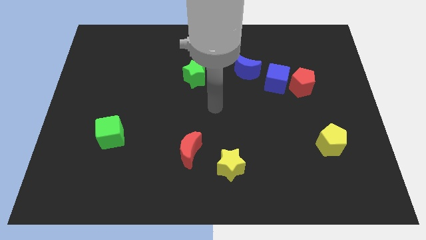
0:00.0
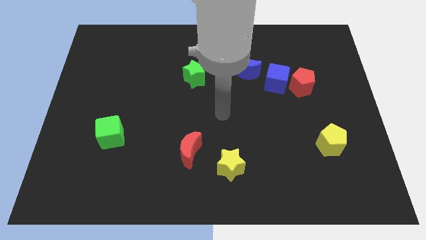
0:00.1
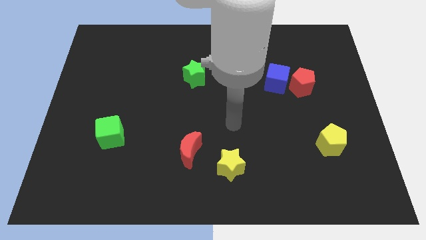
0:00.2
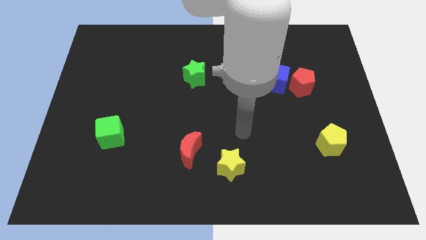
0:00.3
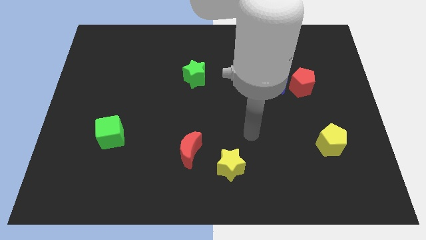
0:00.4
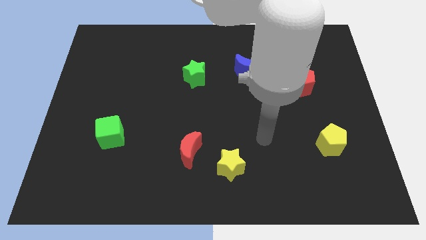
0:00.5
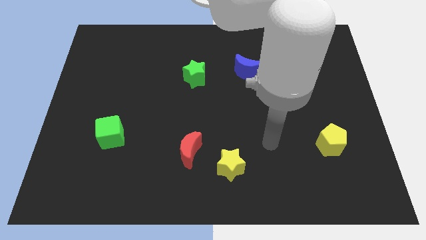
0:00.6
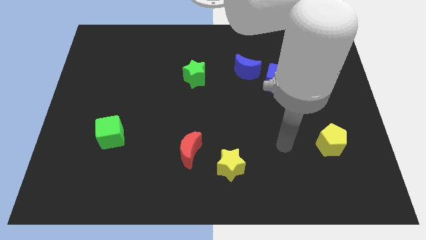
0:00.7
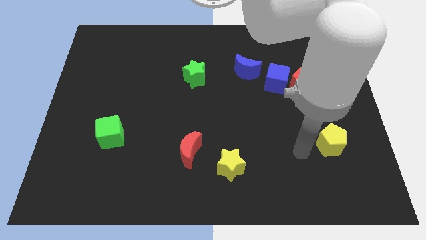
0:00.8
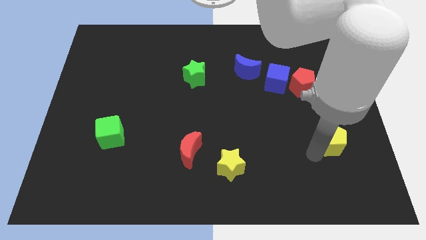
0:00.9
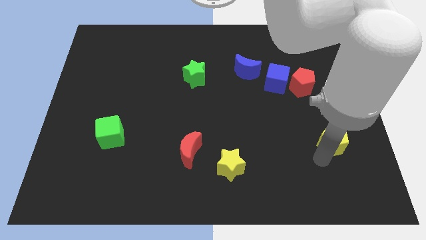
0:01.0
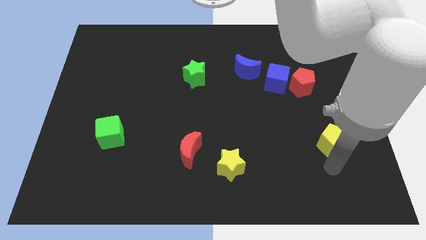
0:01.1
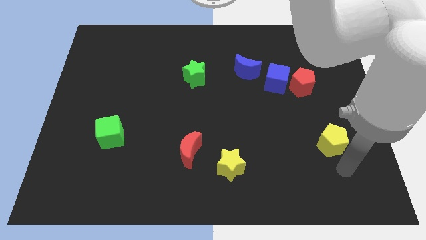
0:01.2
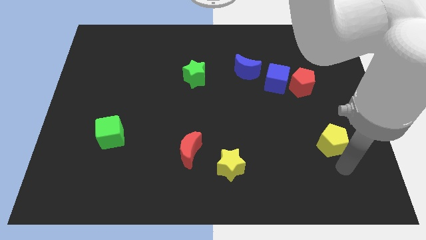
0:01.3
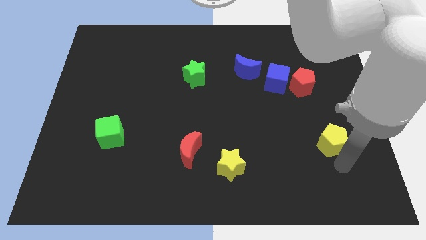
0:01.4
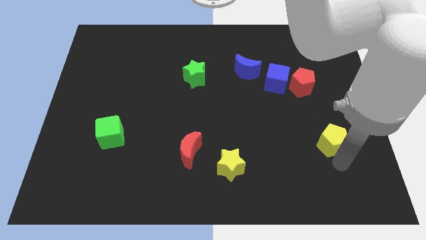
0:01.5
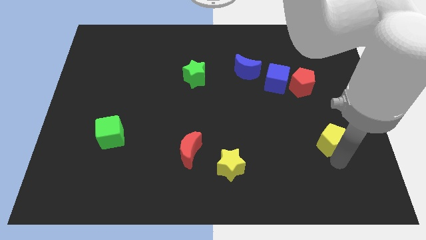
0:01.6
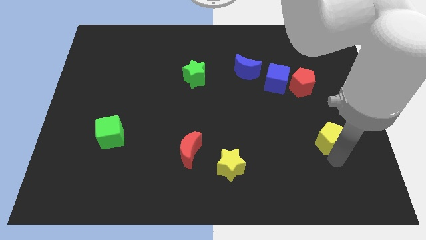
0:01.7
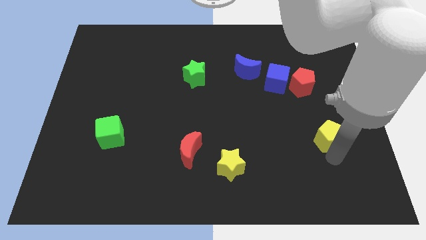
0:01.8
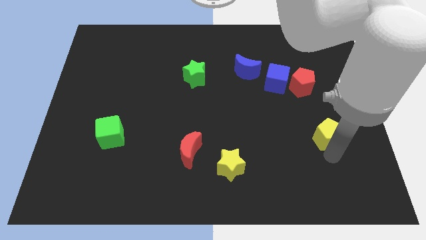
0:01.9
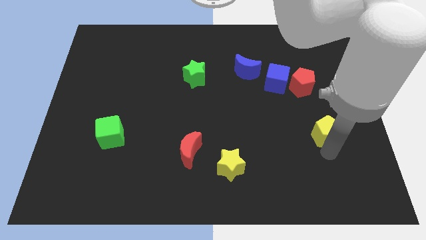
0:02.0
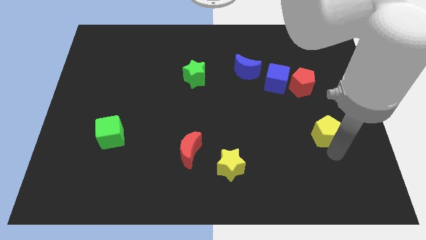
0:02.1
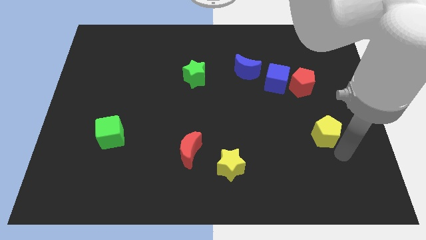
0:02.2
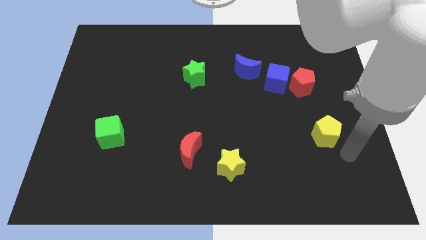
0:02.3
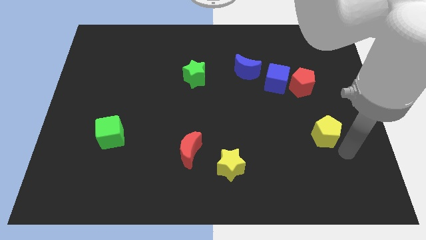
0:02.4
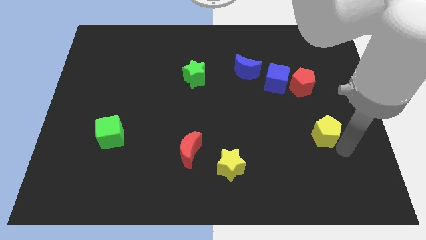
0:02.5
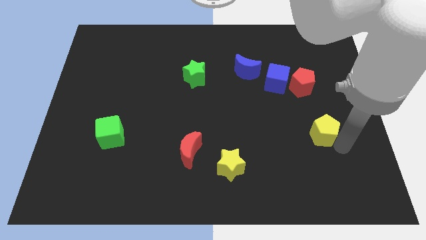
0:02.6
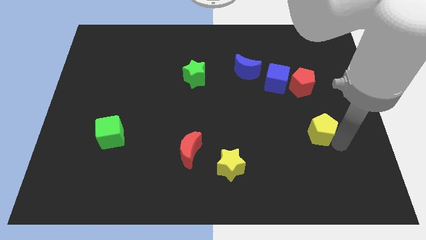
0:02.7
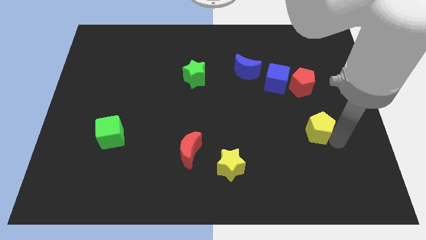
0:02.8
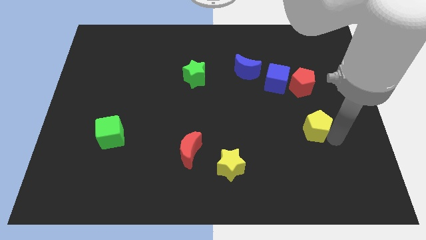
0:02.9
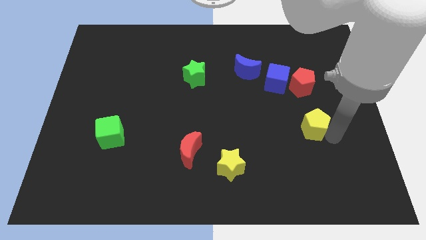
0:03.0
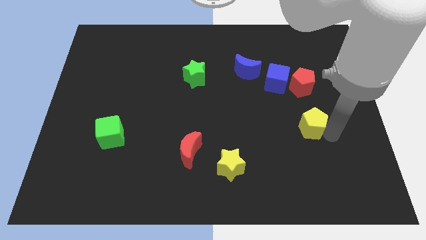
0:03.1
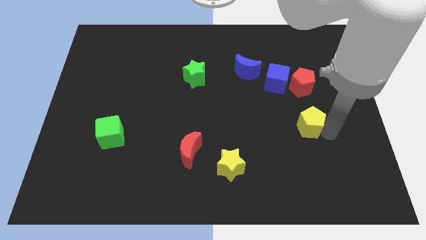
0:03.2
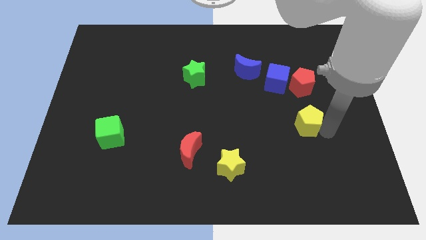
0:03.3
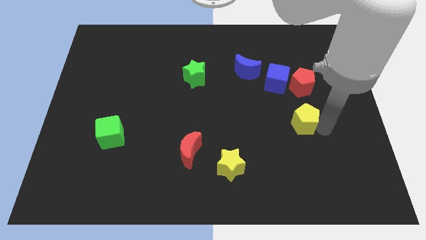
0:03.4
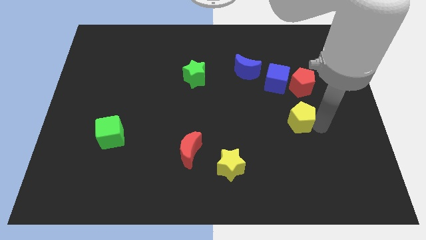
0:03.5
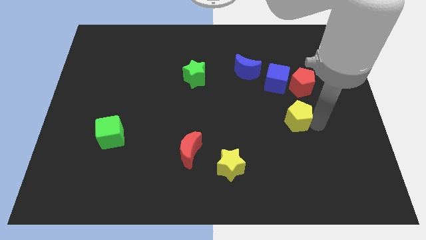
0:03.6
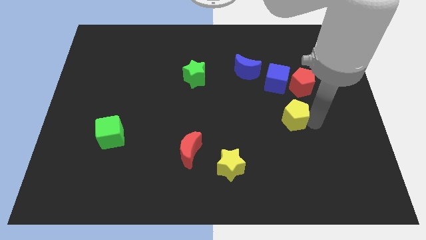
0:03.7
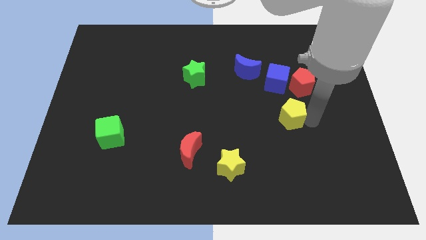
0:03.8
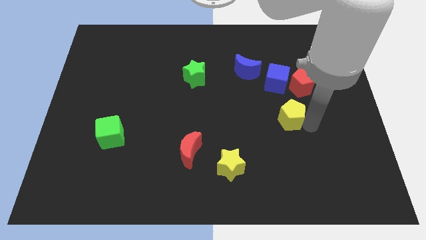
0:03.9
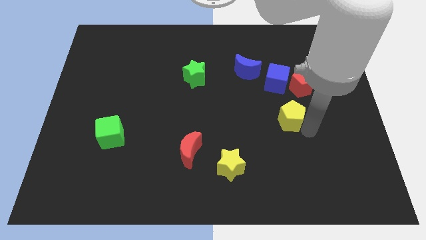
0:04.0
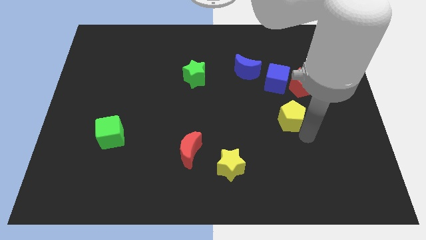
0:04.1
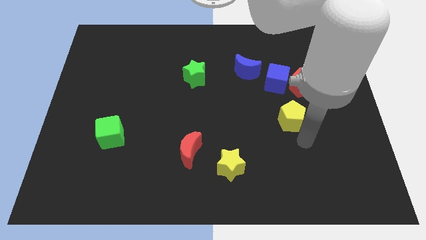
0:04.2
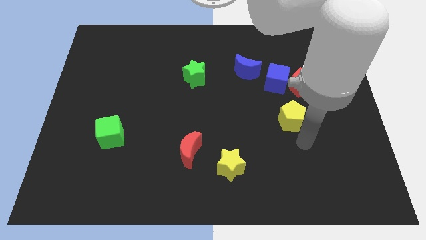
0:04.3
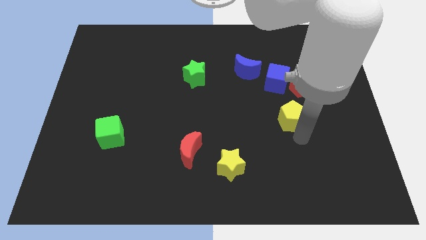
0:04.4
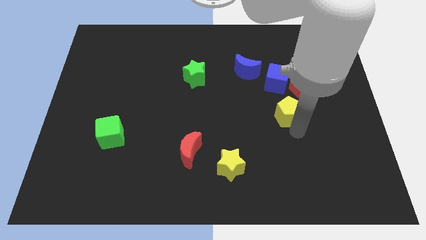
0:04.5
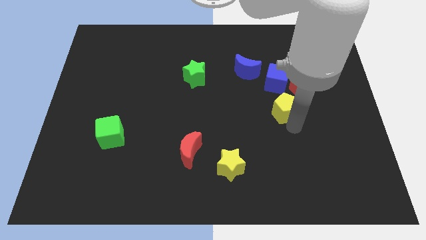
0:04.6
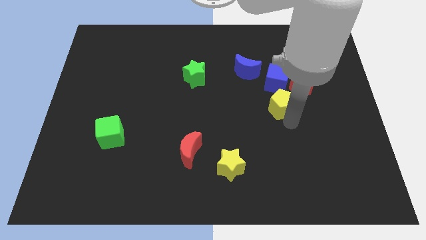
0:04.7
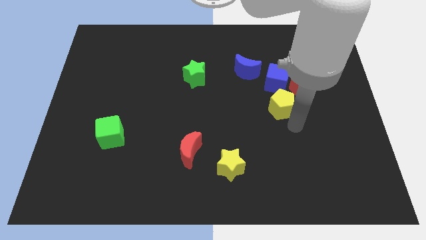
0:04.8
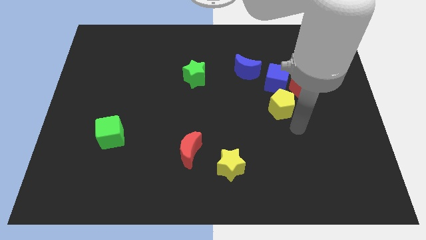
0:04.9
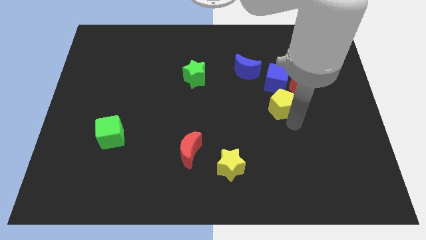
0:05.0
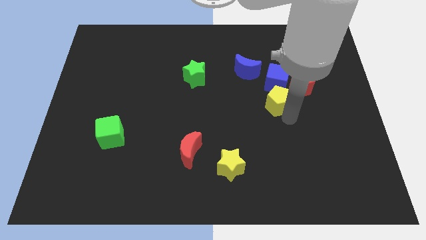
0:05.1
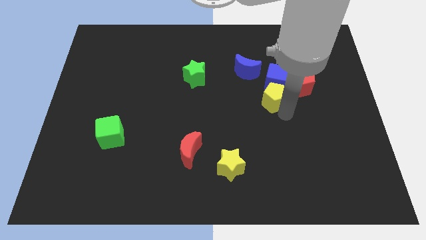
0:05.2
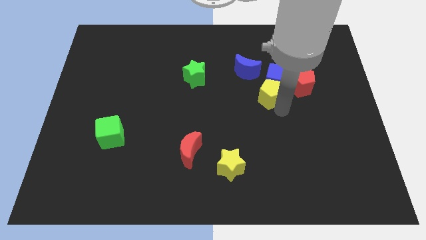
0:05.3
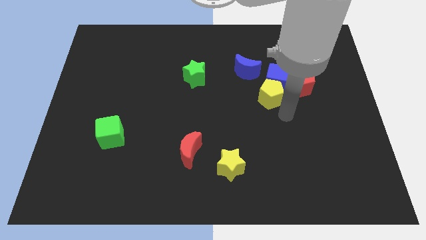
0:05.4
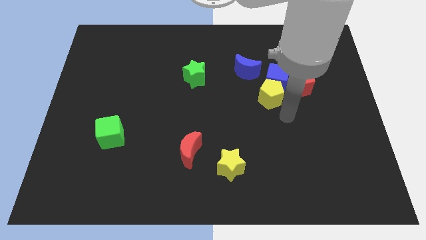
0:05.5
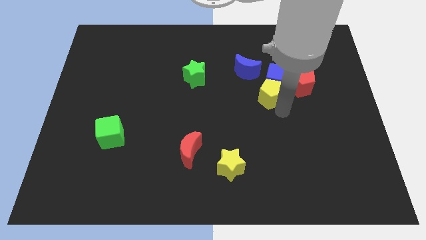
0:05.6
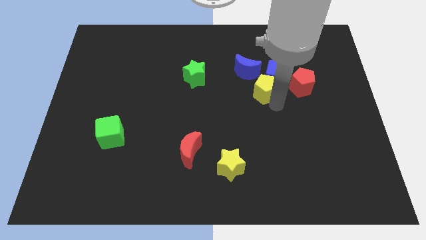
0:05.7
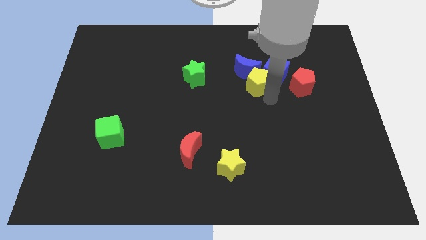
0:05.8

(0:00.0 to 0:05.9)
slide the yellow pentagon to the blue moon

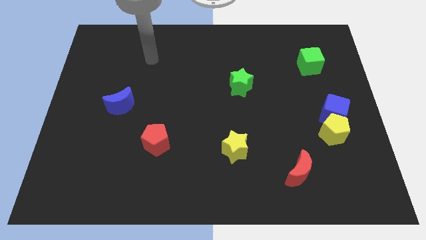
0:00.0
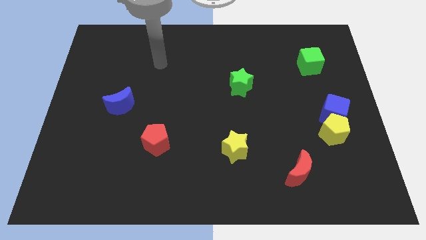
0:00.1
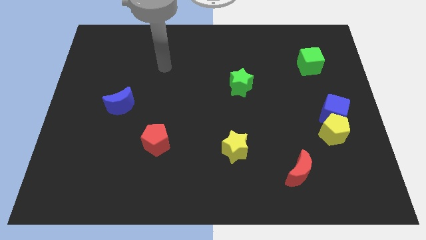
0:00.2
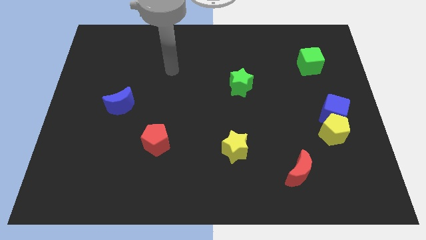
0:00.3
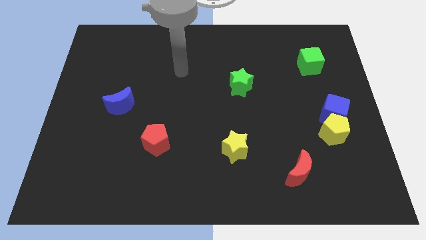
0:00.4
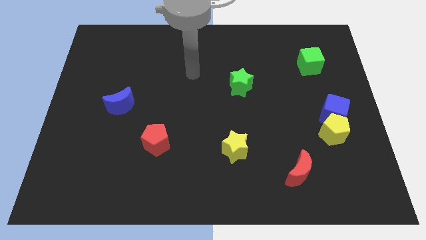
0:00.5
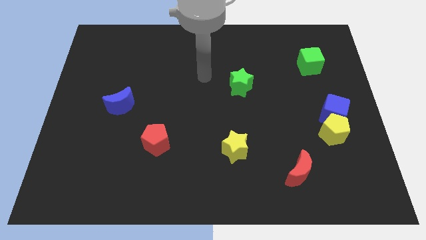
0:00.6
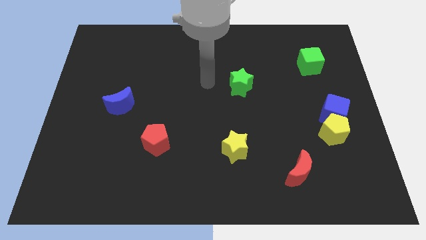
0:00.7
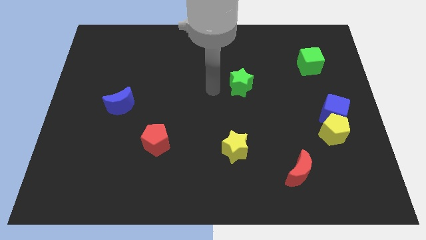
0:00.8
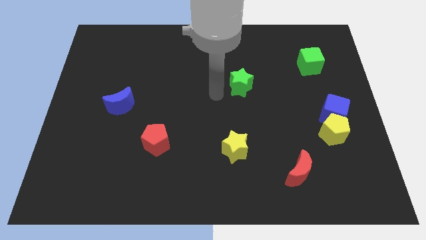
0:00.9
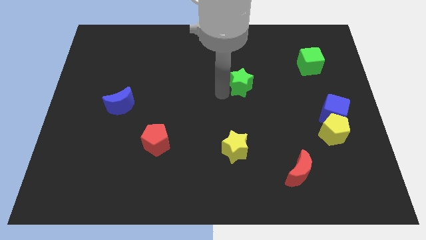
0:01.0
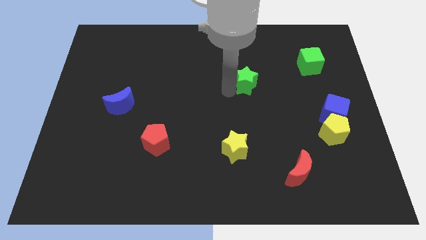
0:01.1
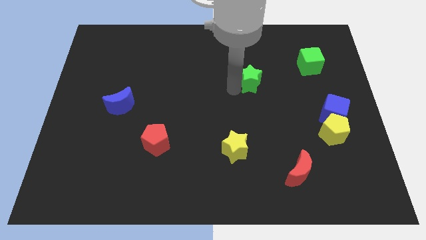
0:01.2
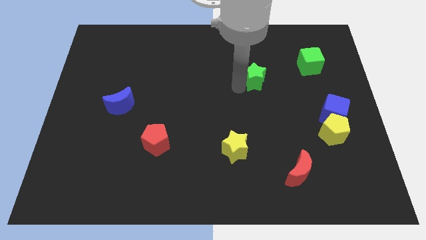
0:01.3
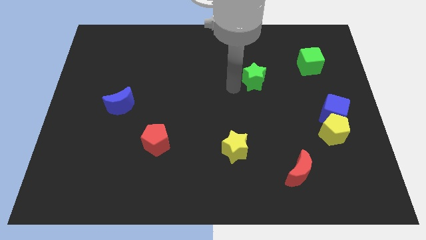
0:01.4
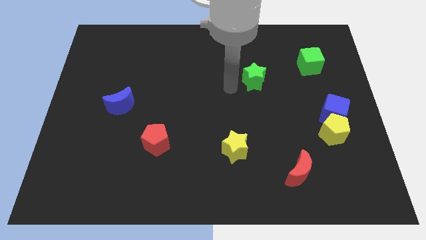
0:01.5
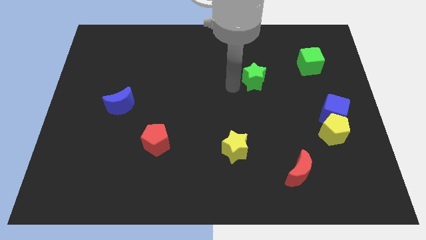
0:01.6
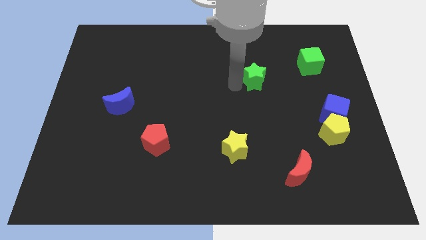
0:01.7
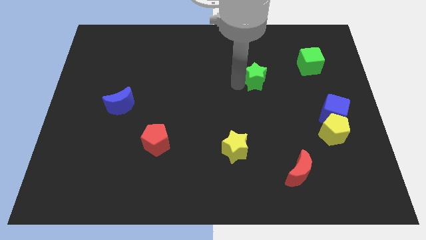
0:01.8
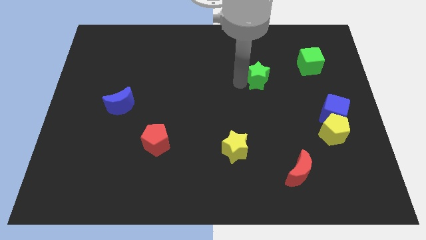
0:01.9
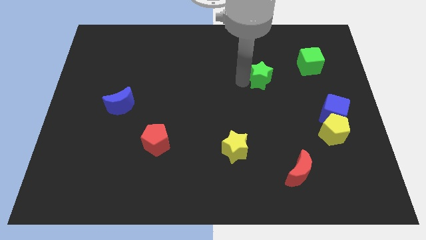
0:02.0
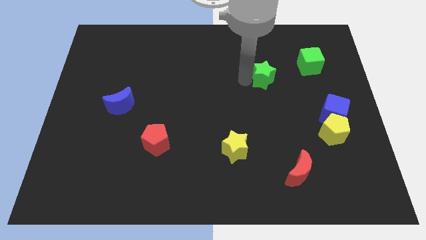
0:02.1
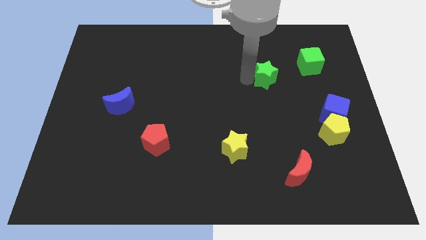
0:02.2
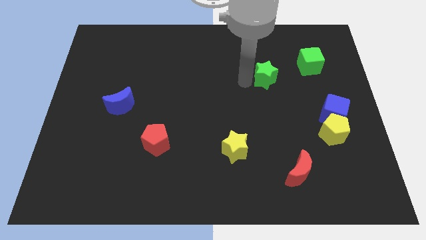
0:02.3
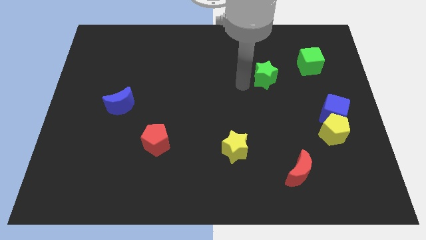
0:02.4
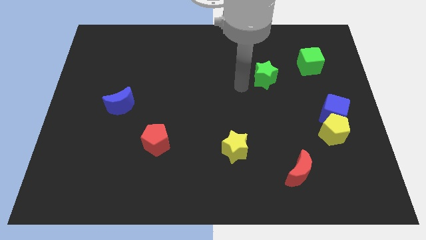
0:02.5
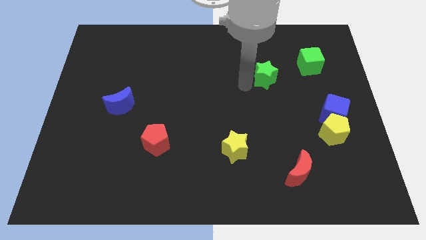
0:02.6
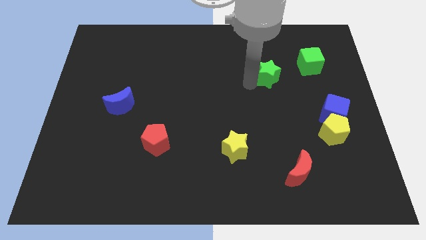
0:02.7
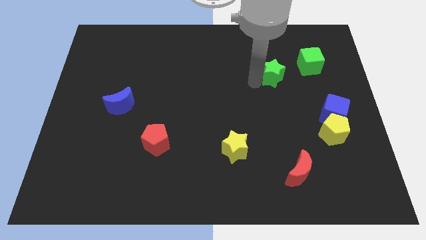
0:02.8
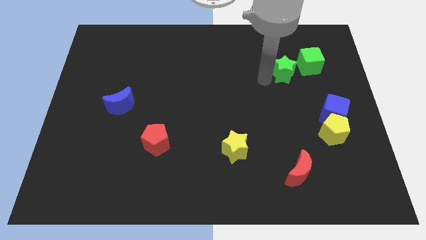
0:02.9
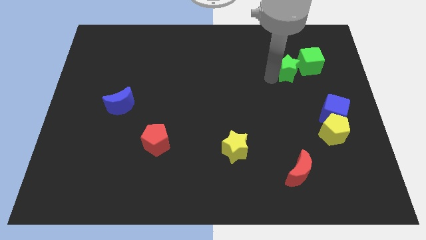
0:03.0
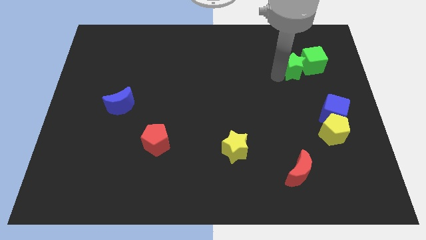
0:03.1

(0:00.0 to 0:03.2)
slide the green star to the green cube
